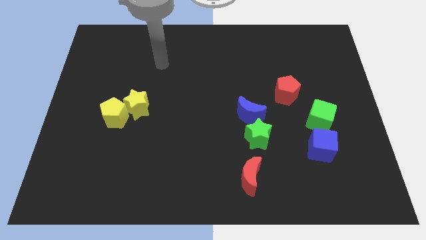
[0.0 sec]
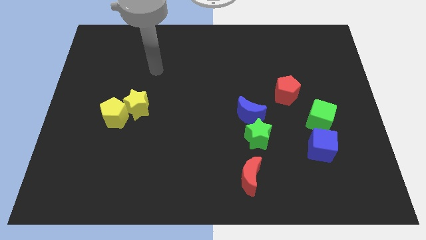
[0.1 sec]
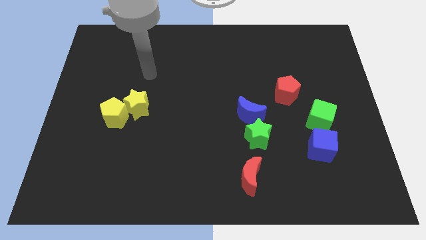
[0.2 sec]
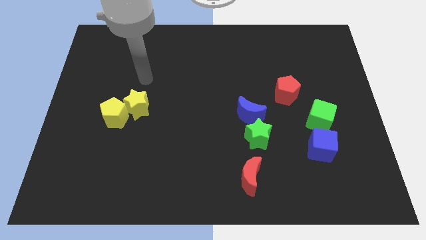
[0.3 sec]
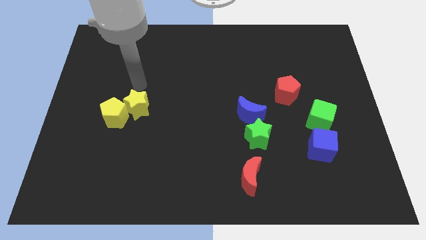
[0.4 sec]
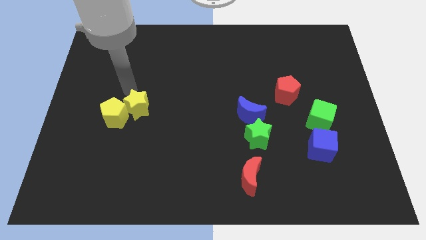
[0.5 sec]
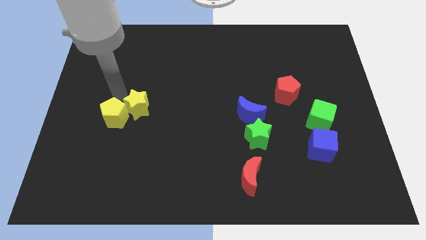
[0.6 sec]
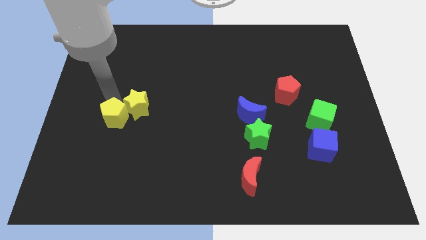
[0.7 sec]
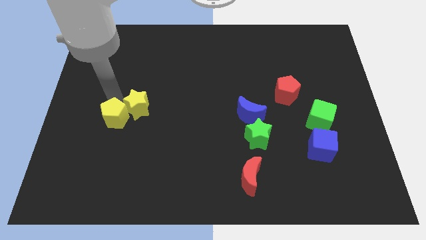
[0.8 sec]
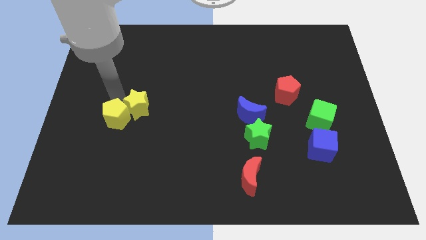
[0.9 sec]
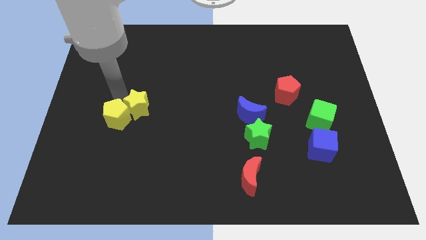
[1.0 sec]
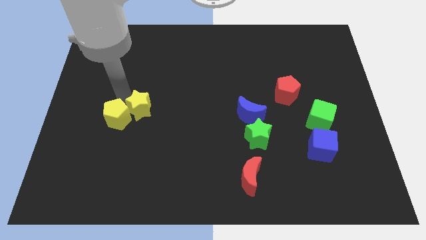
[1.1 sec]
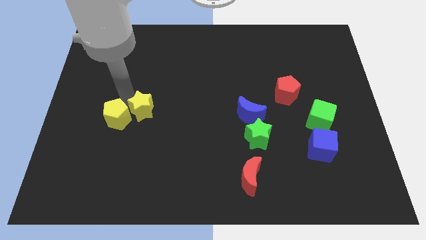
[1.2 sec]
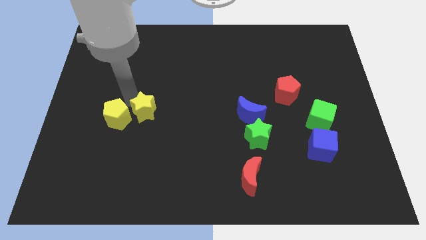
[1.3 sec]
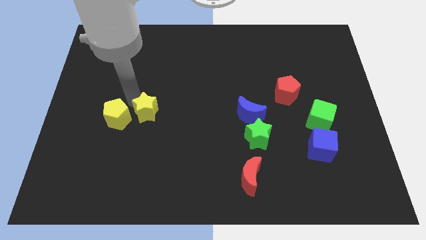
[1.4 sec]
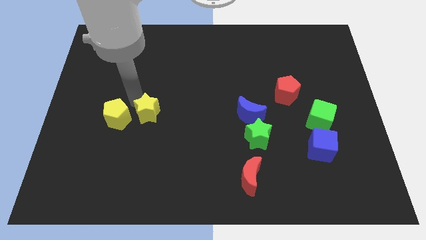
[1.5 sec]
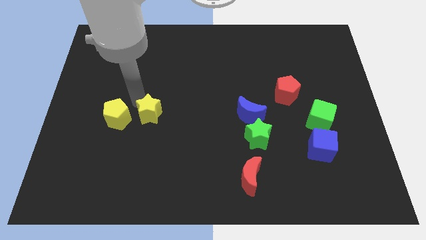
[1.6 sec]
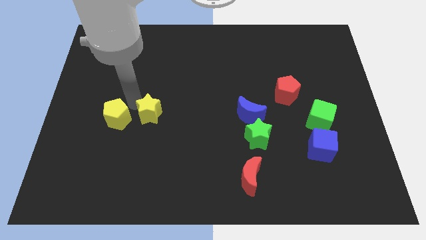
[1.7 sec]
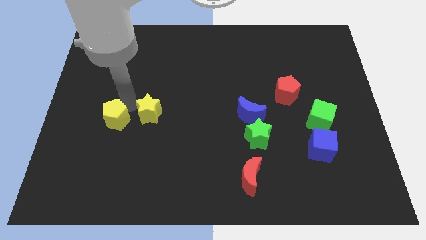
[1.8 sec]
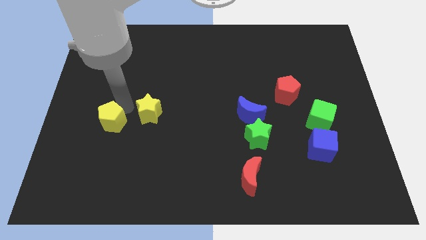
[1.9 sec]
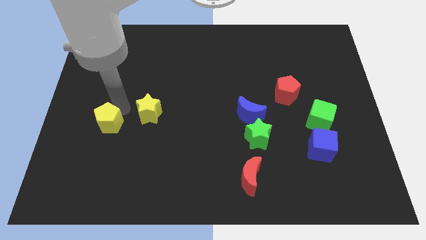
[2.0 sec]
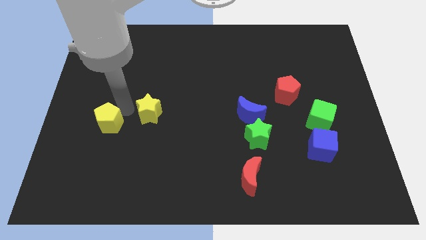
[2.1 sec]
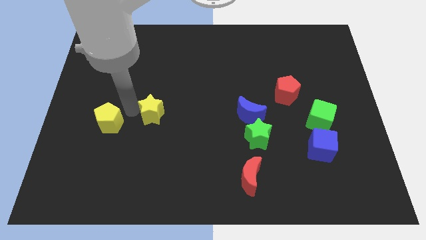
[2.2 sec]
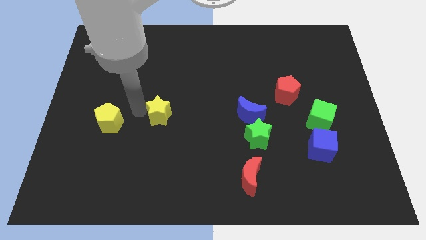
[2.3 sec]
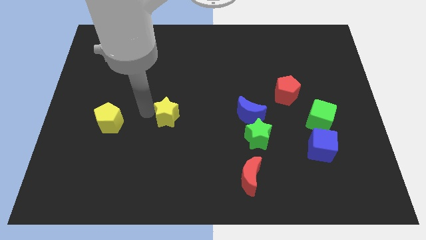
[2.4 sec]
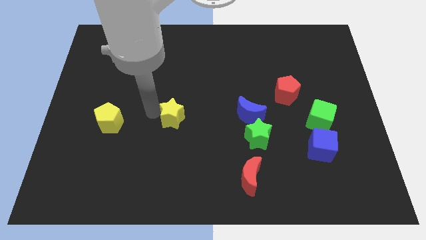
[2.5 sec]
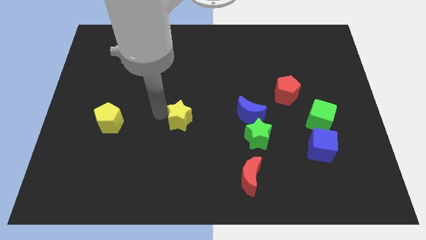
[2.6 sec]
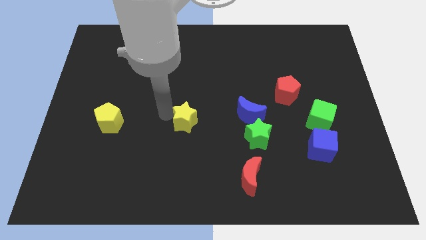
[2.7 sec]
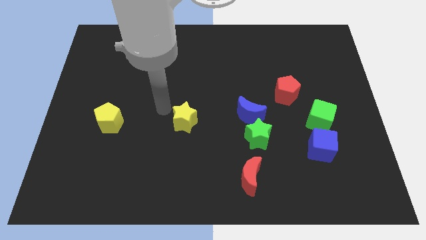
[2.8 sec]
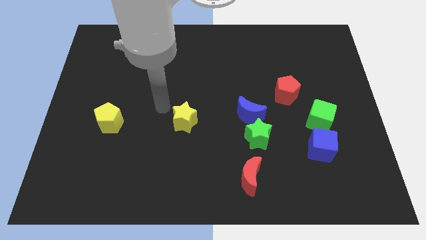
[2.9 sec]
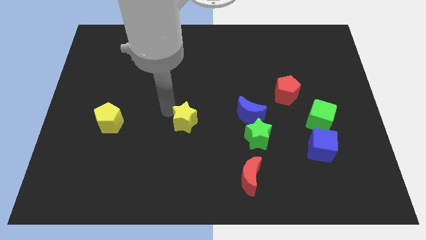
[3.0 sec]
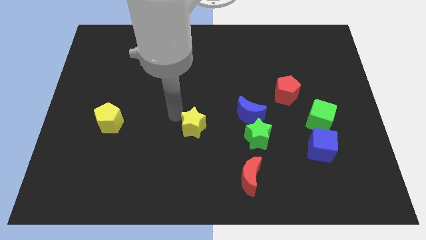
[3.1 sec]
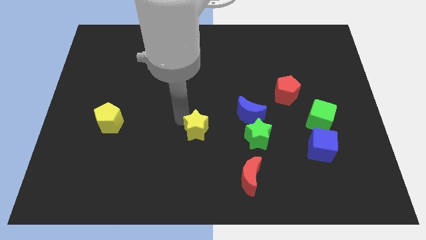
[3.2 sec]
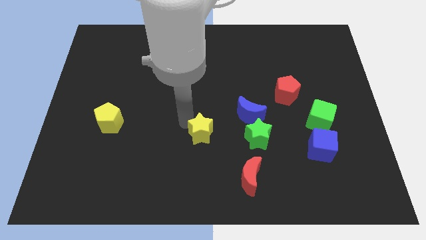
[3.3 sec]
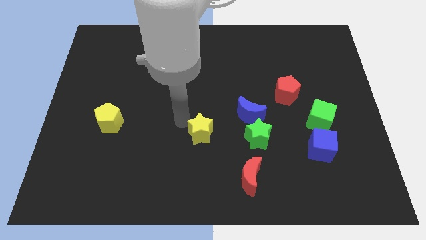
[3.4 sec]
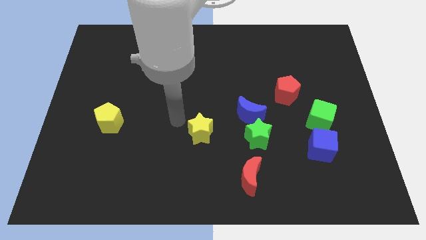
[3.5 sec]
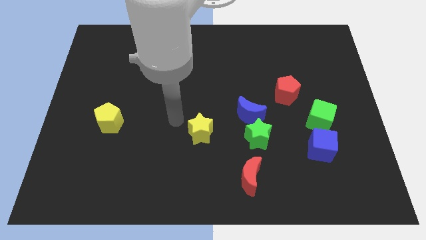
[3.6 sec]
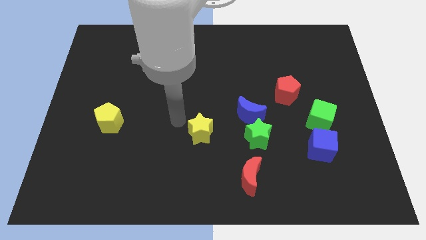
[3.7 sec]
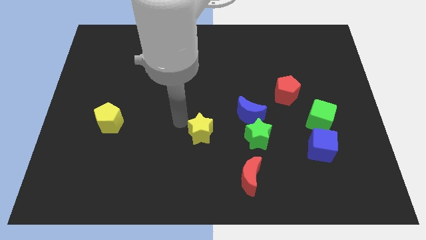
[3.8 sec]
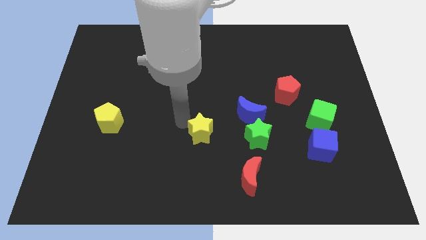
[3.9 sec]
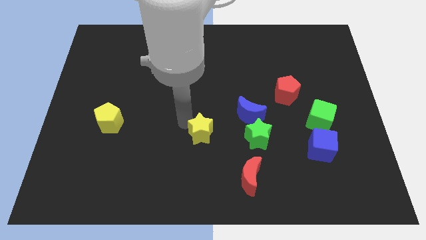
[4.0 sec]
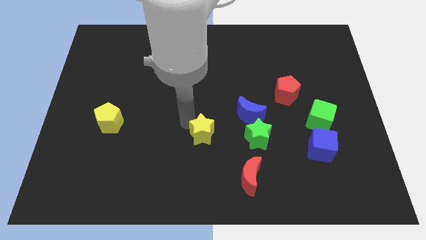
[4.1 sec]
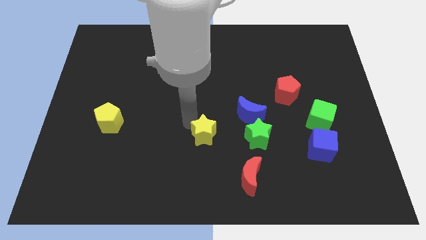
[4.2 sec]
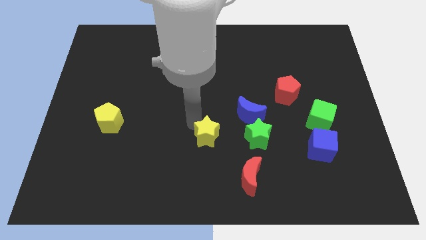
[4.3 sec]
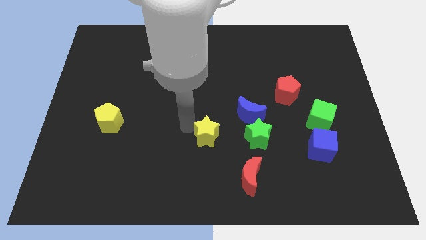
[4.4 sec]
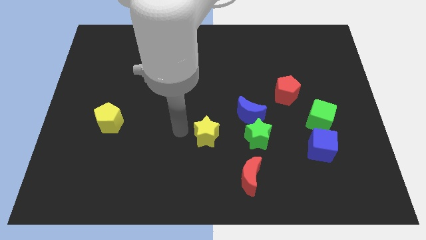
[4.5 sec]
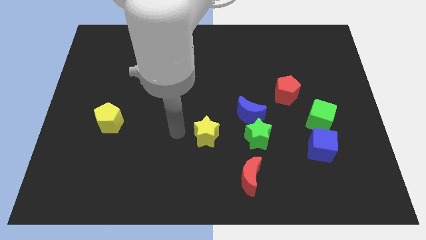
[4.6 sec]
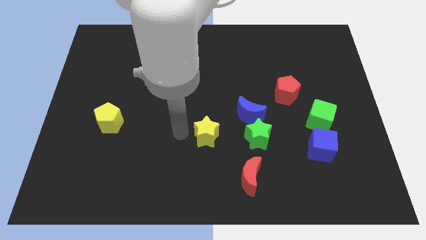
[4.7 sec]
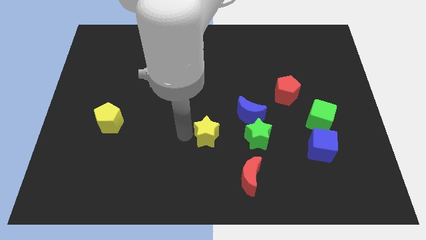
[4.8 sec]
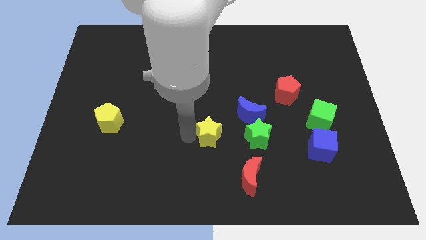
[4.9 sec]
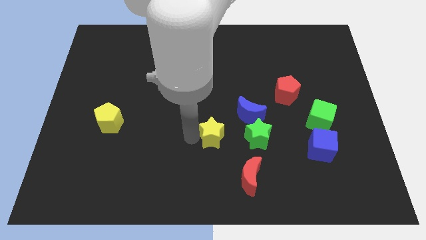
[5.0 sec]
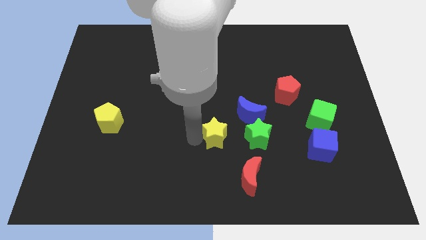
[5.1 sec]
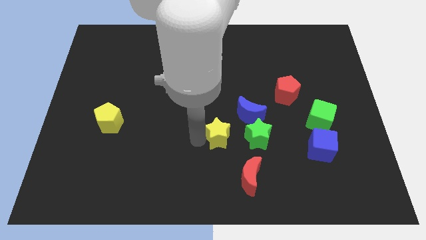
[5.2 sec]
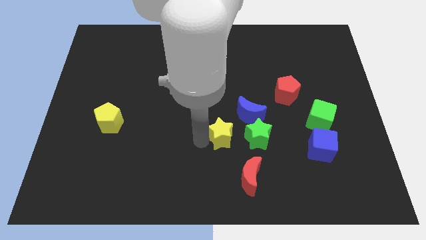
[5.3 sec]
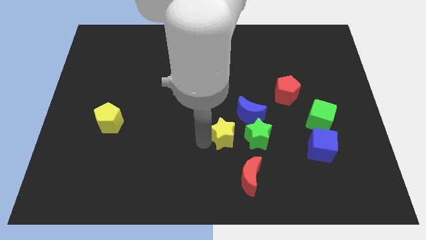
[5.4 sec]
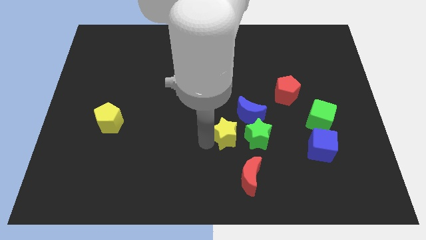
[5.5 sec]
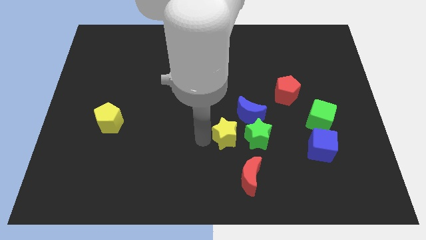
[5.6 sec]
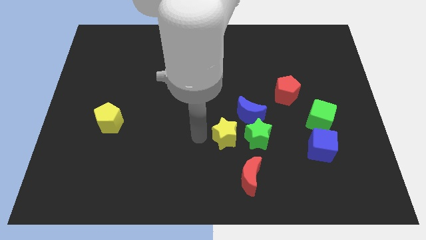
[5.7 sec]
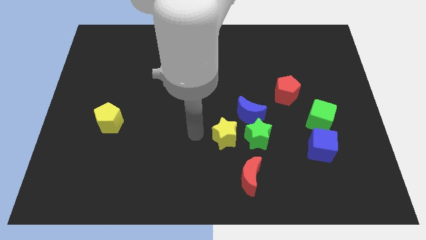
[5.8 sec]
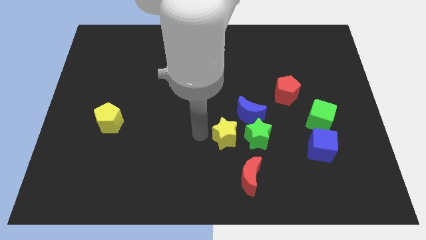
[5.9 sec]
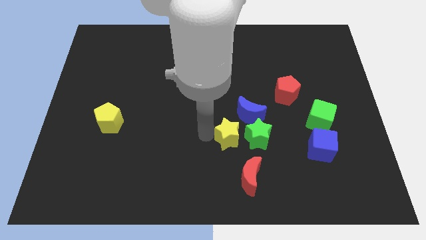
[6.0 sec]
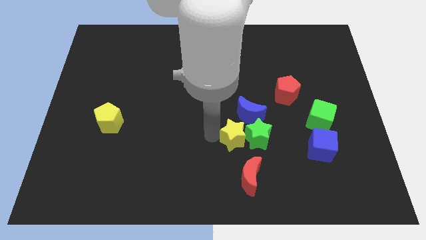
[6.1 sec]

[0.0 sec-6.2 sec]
push the yellow star towards the green star

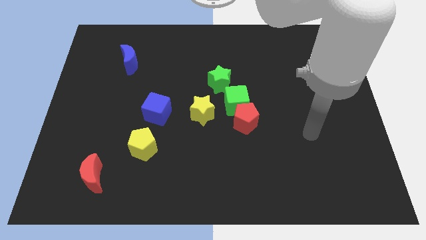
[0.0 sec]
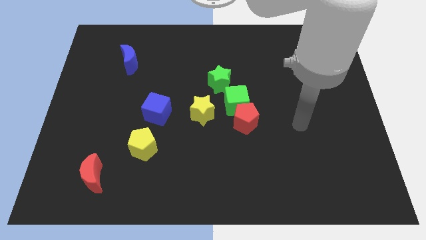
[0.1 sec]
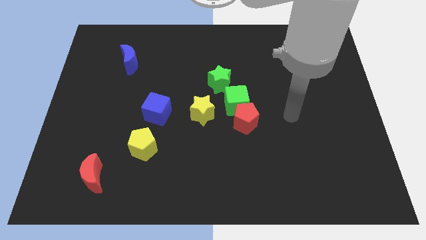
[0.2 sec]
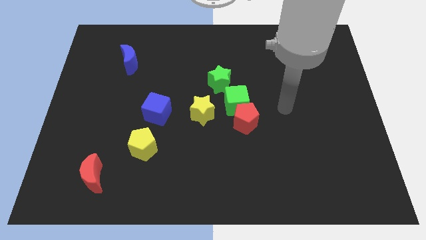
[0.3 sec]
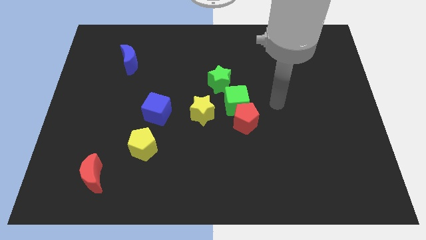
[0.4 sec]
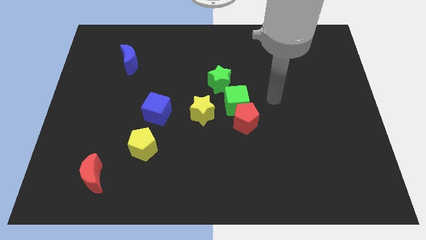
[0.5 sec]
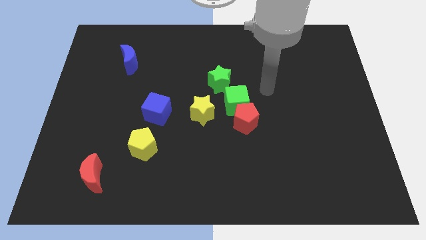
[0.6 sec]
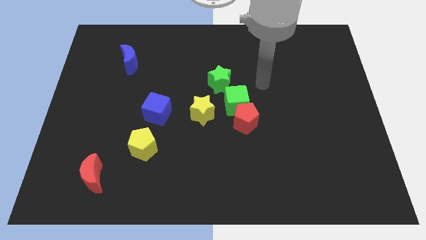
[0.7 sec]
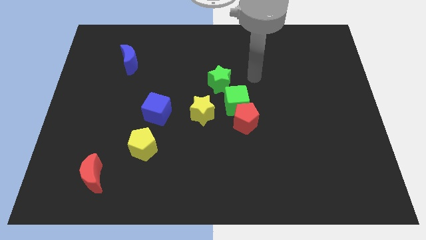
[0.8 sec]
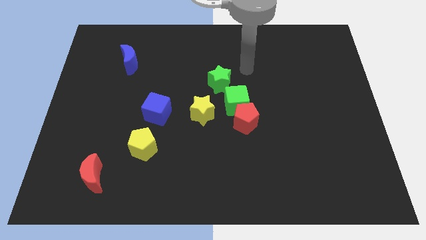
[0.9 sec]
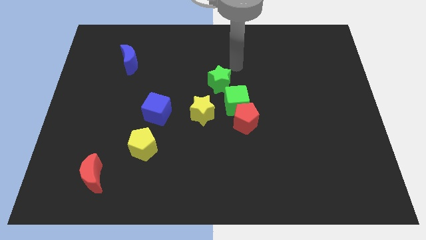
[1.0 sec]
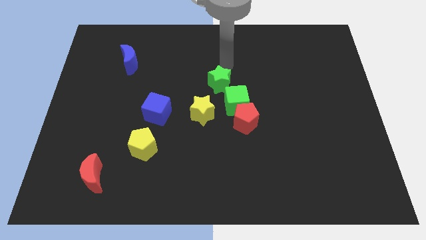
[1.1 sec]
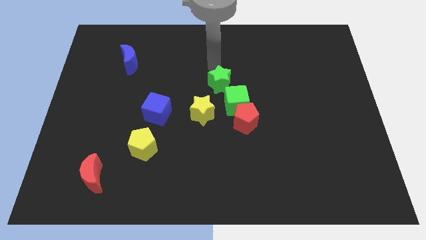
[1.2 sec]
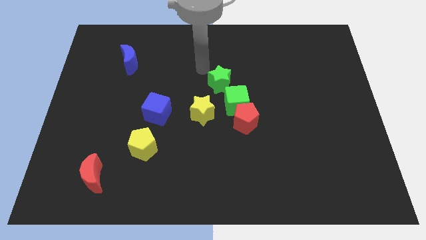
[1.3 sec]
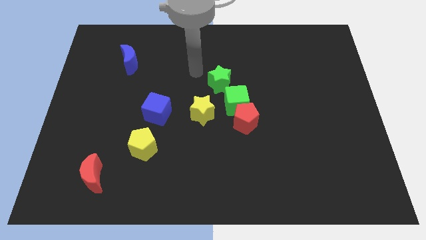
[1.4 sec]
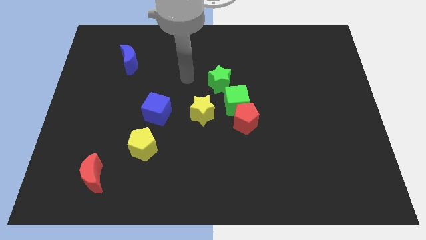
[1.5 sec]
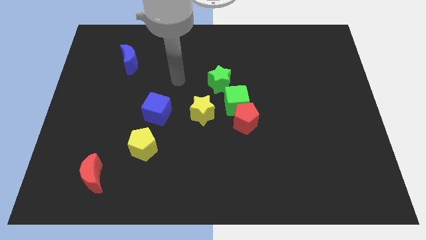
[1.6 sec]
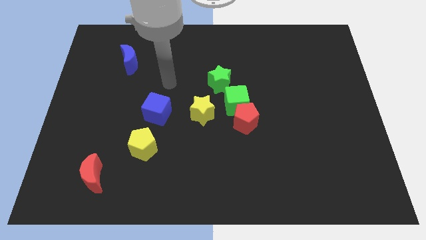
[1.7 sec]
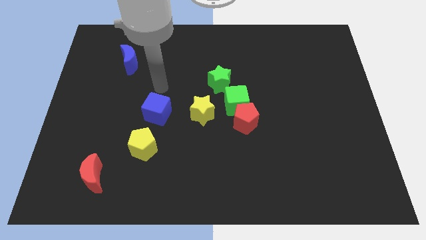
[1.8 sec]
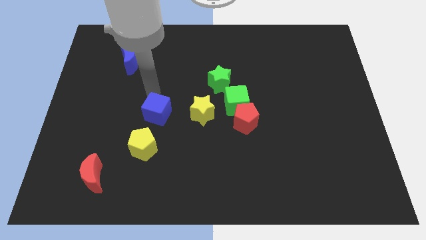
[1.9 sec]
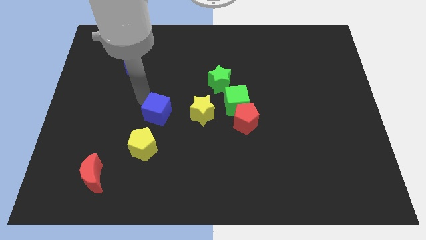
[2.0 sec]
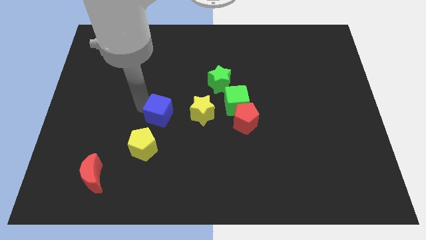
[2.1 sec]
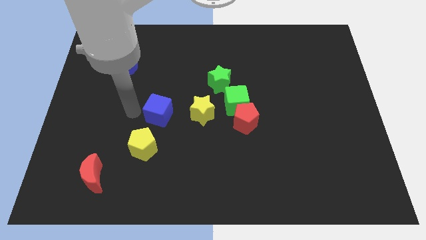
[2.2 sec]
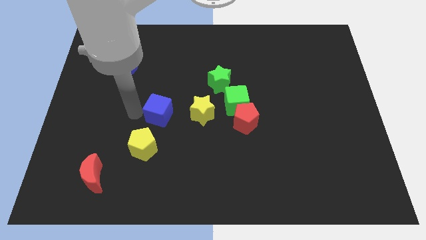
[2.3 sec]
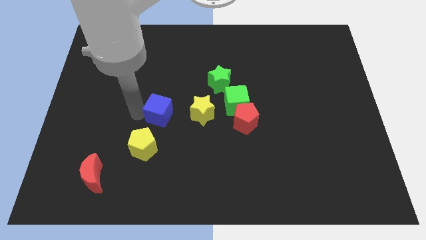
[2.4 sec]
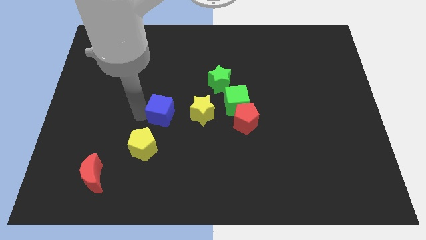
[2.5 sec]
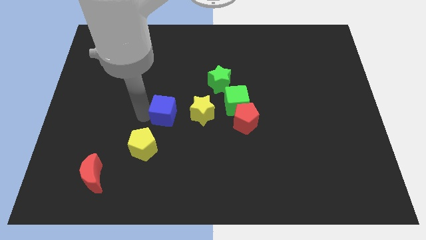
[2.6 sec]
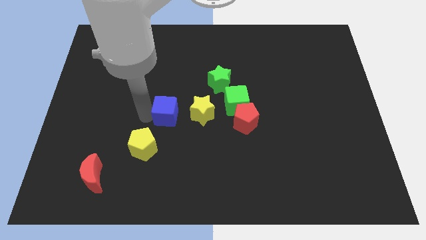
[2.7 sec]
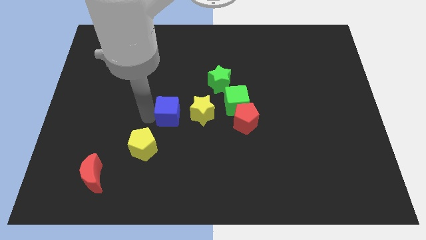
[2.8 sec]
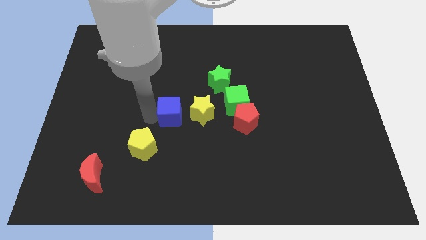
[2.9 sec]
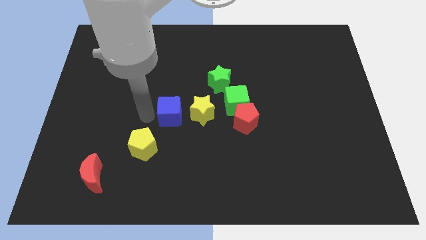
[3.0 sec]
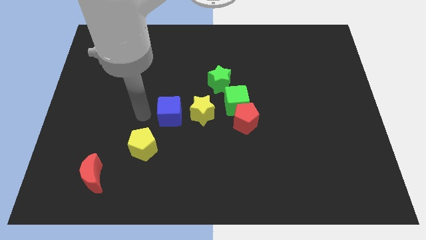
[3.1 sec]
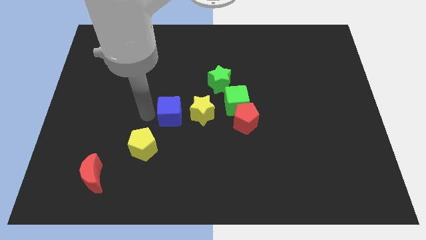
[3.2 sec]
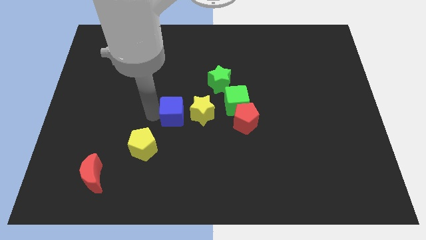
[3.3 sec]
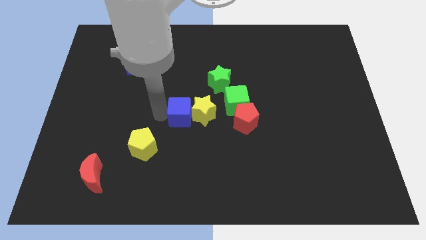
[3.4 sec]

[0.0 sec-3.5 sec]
push the blue cube to the yellow star
